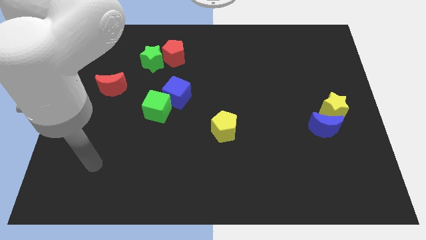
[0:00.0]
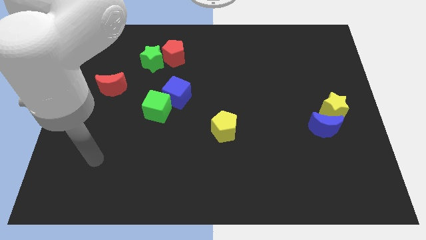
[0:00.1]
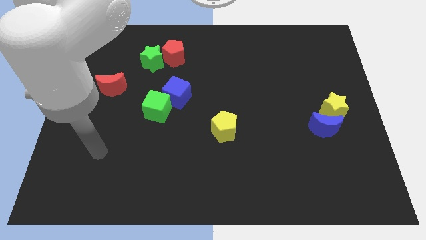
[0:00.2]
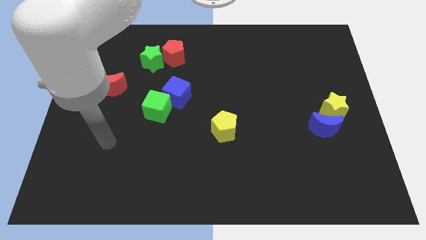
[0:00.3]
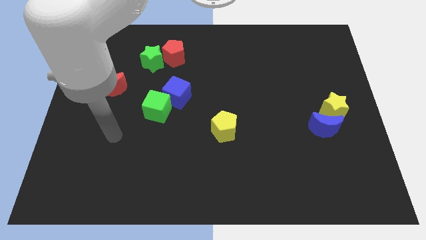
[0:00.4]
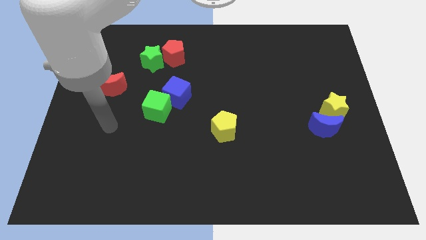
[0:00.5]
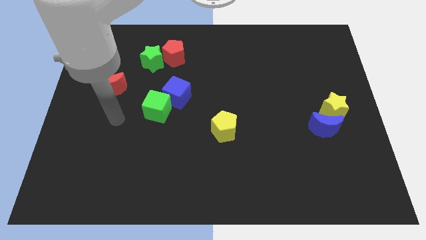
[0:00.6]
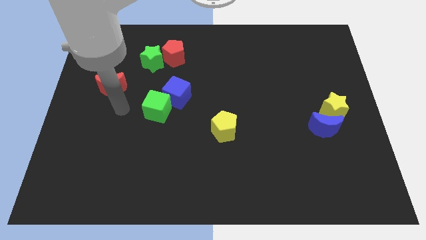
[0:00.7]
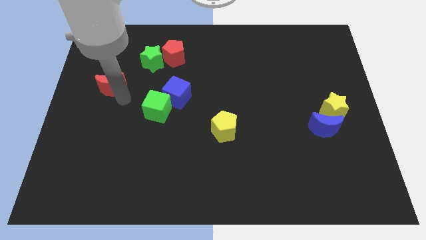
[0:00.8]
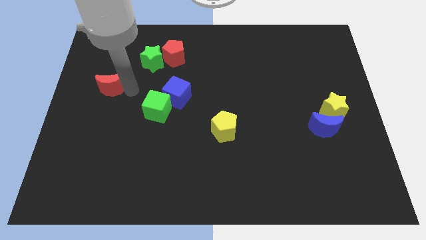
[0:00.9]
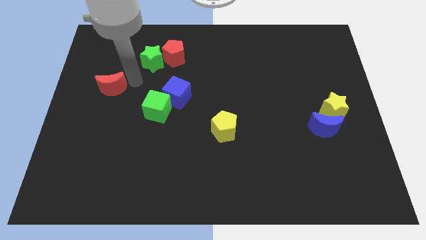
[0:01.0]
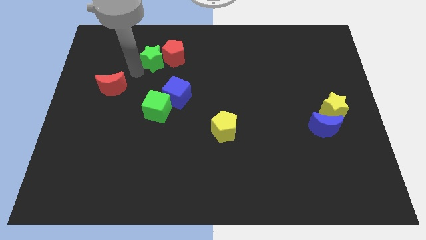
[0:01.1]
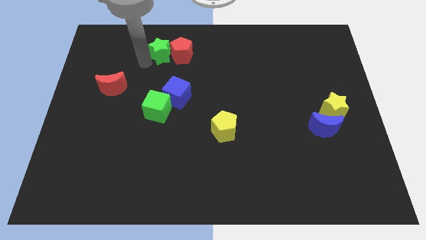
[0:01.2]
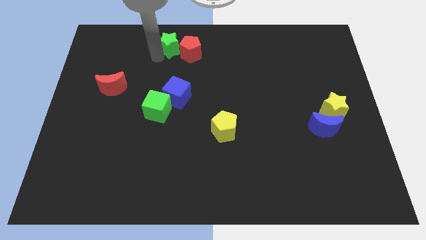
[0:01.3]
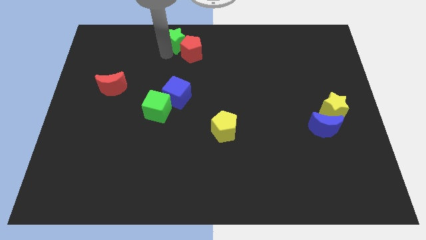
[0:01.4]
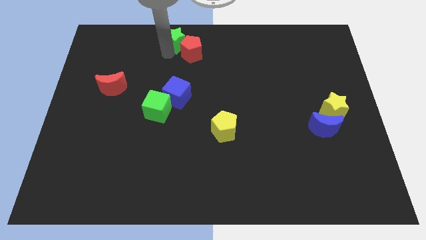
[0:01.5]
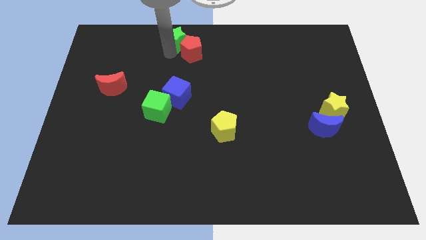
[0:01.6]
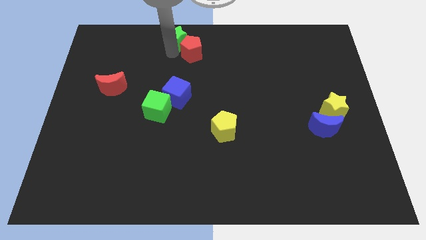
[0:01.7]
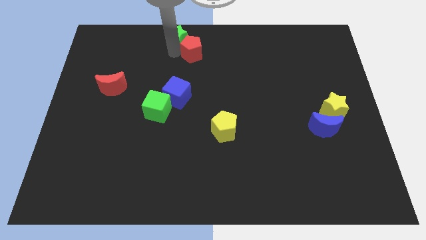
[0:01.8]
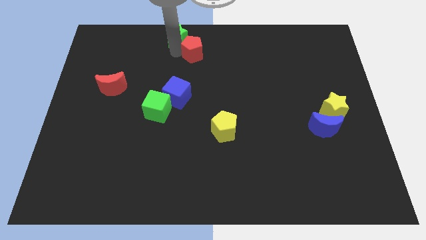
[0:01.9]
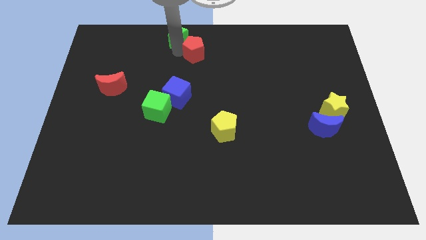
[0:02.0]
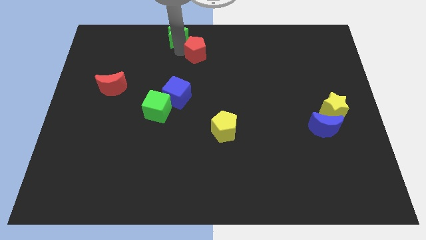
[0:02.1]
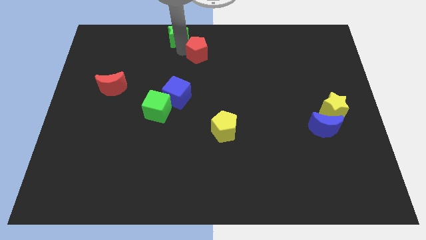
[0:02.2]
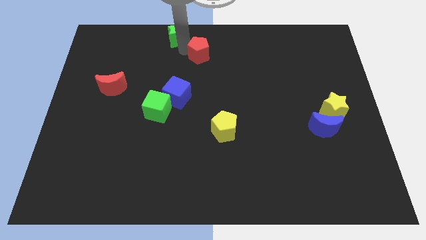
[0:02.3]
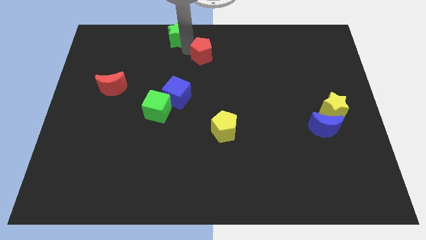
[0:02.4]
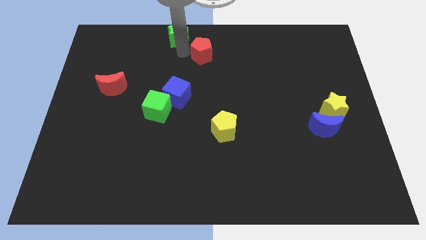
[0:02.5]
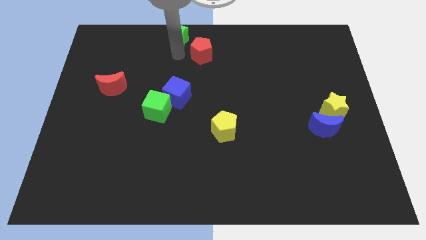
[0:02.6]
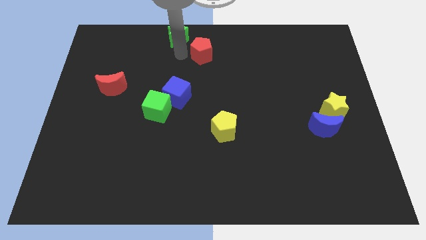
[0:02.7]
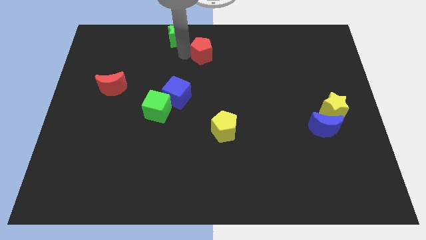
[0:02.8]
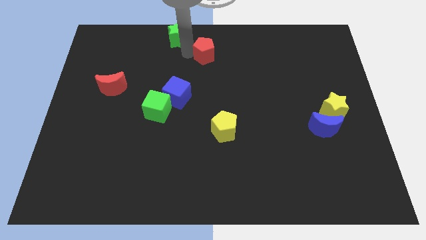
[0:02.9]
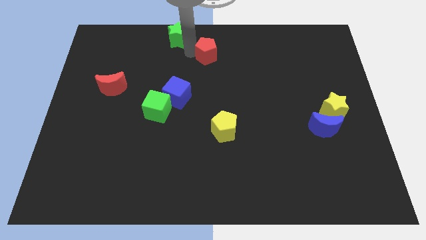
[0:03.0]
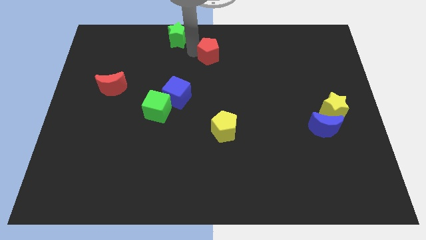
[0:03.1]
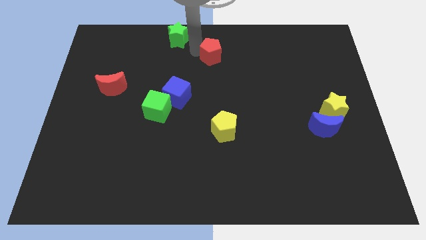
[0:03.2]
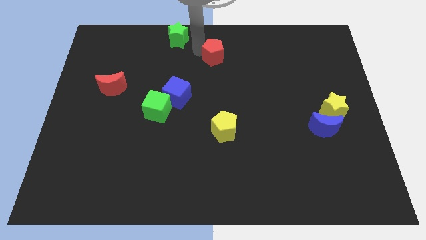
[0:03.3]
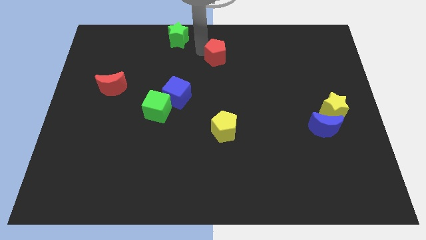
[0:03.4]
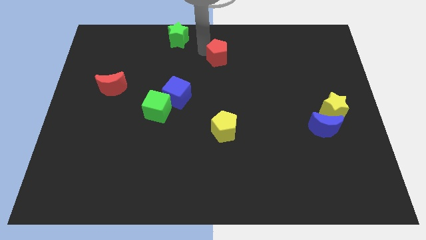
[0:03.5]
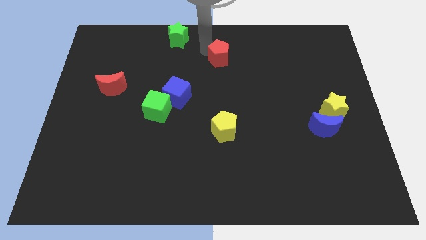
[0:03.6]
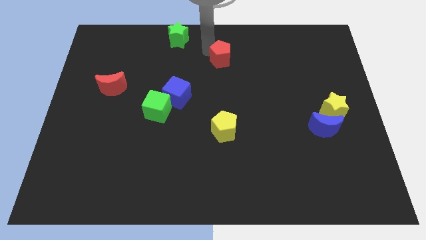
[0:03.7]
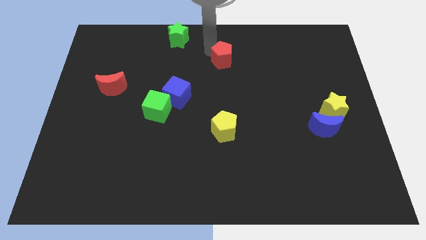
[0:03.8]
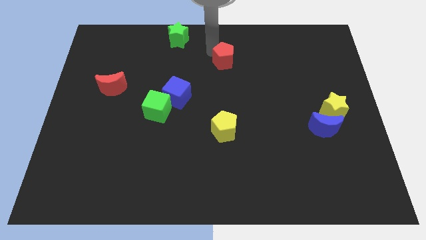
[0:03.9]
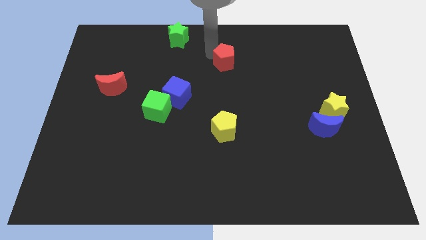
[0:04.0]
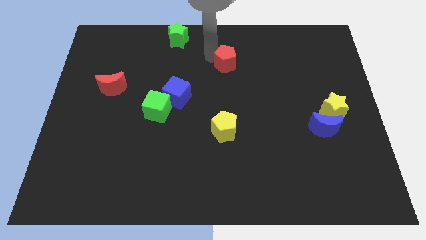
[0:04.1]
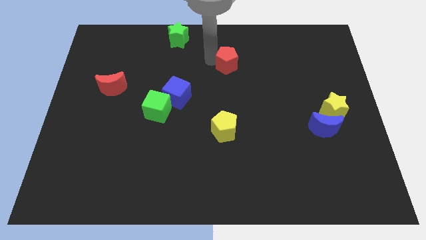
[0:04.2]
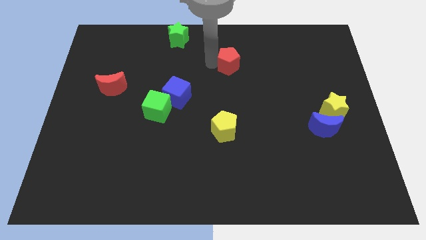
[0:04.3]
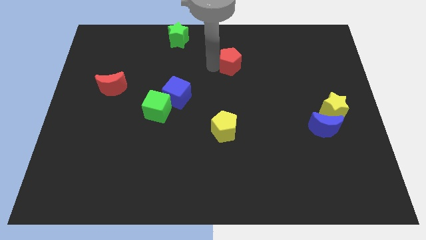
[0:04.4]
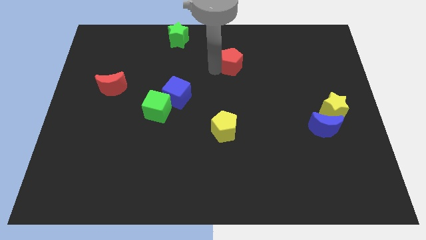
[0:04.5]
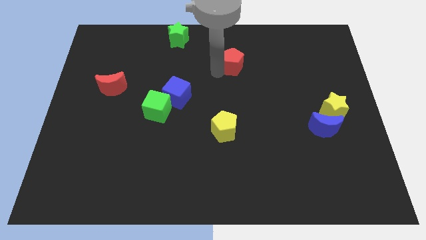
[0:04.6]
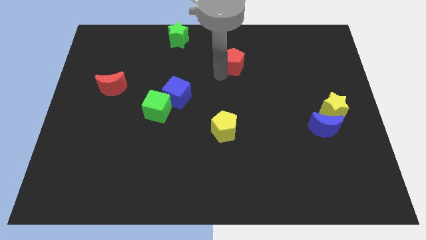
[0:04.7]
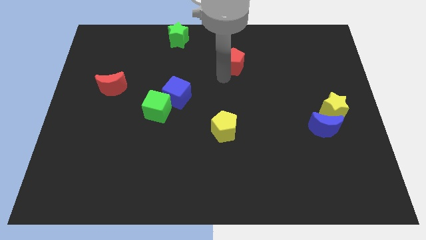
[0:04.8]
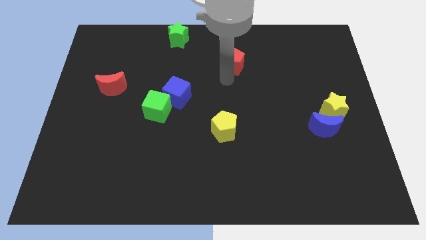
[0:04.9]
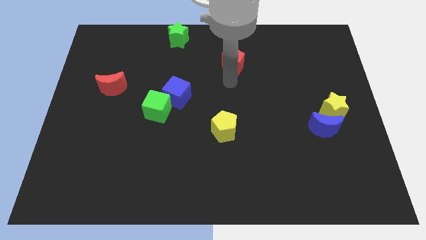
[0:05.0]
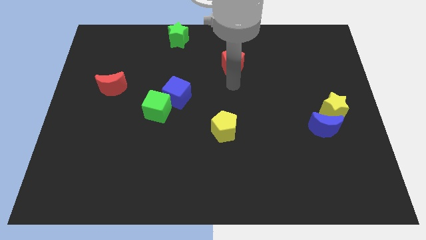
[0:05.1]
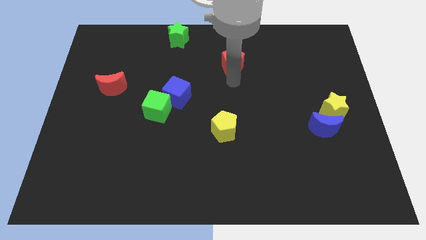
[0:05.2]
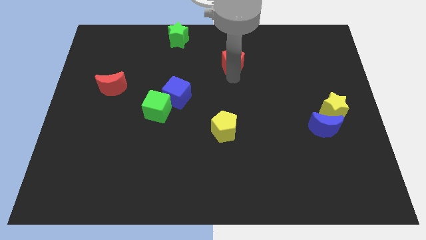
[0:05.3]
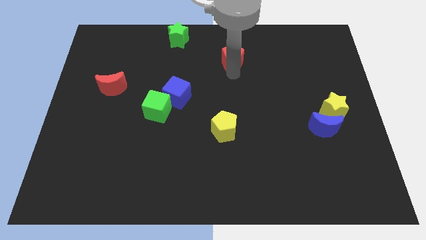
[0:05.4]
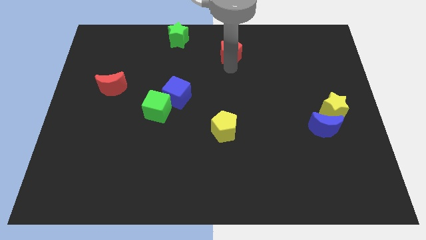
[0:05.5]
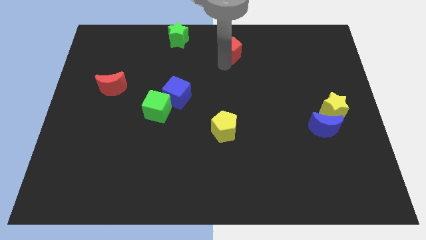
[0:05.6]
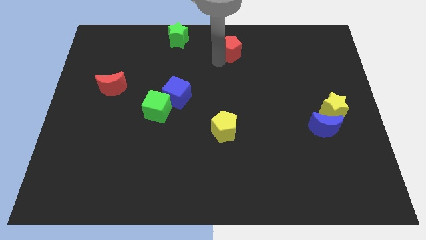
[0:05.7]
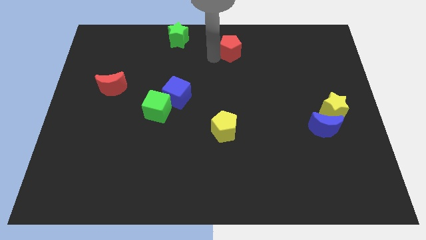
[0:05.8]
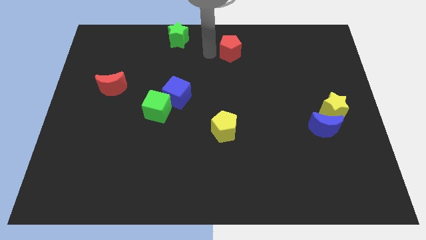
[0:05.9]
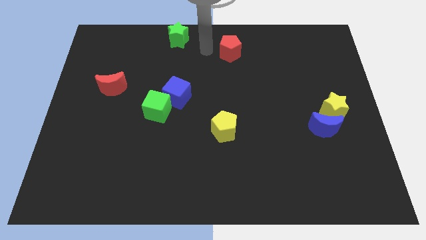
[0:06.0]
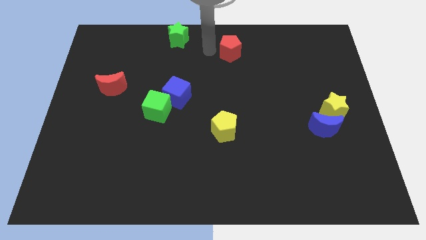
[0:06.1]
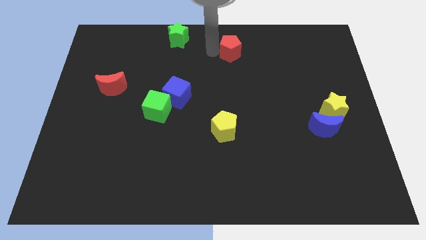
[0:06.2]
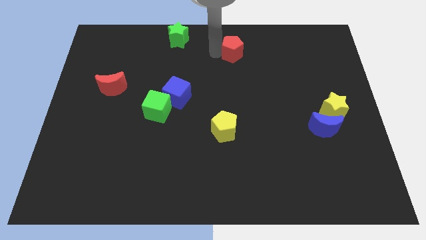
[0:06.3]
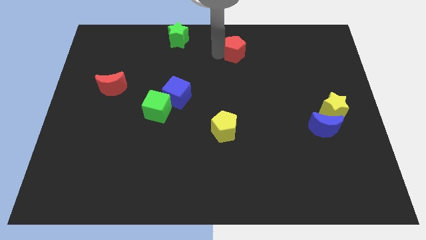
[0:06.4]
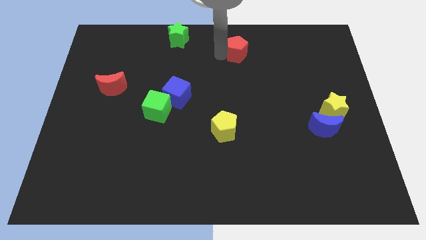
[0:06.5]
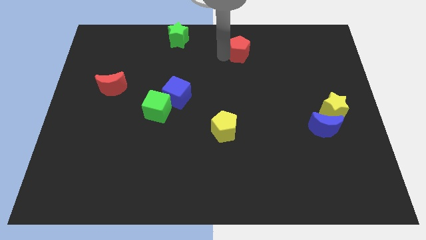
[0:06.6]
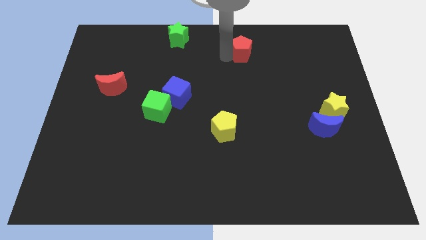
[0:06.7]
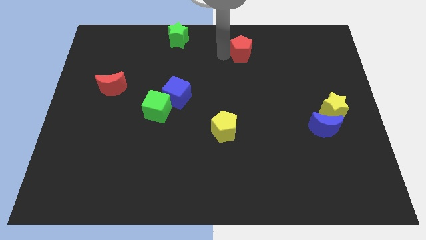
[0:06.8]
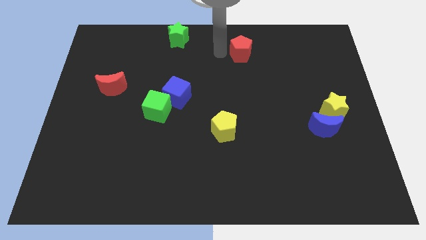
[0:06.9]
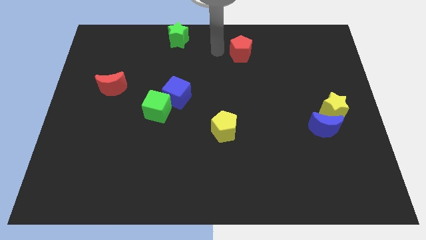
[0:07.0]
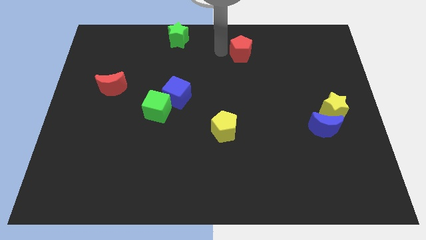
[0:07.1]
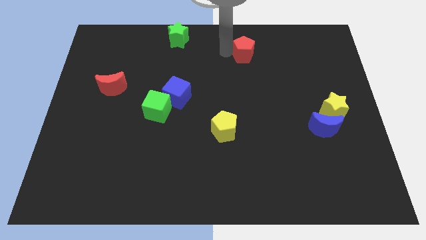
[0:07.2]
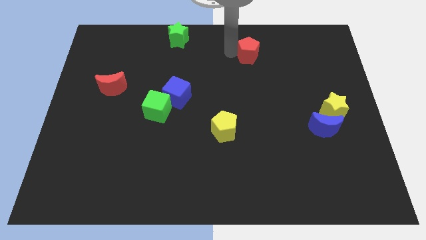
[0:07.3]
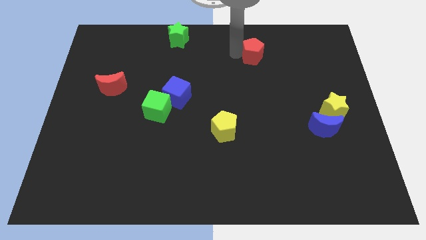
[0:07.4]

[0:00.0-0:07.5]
slide the red pentagon right
